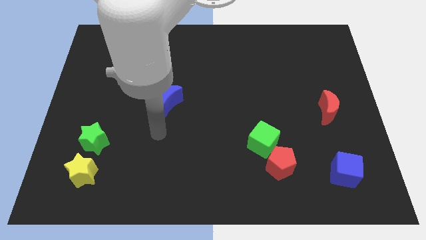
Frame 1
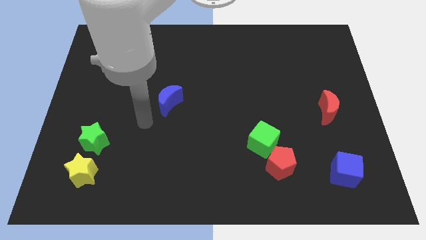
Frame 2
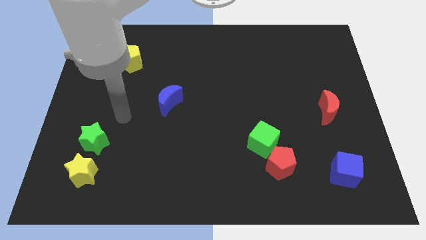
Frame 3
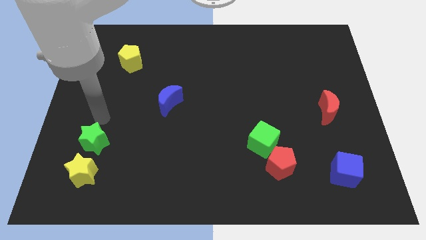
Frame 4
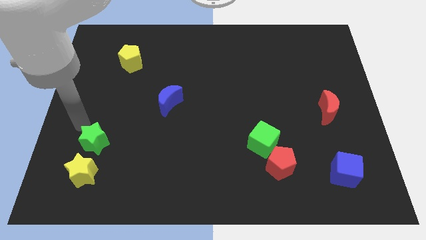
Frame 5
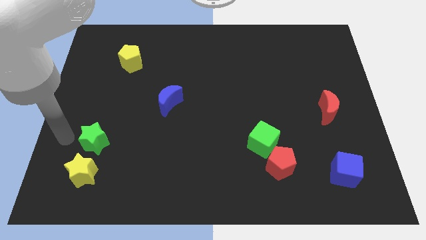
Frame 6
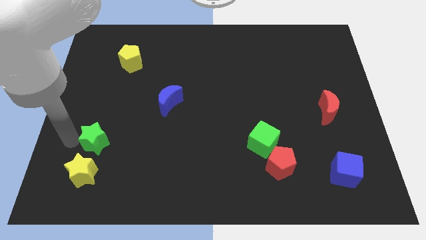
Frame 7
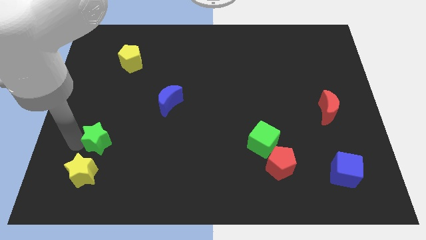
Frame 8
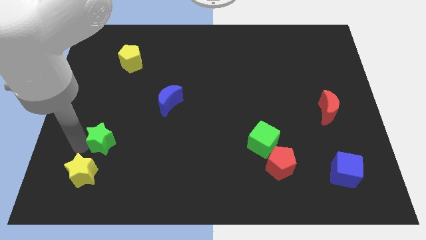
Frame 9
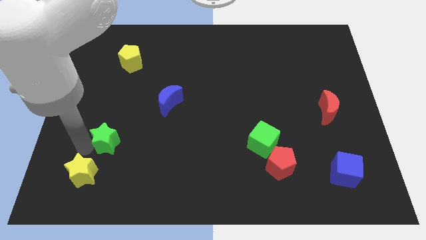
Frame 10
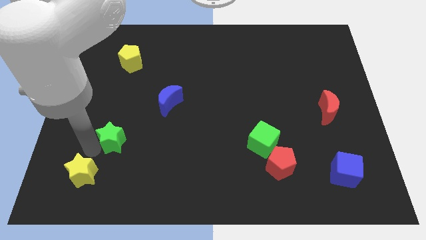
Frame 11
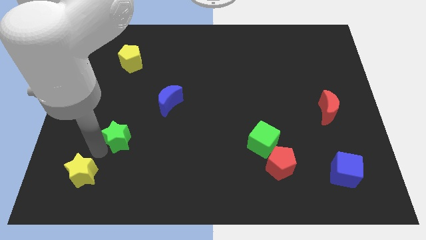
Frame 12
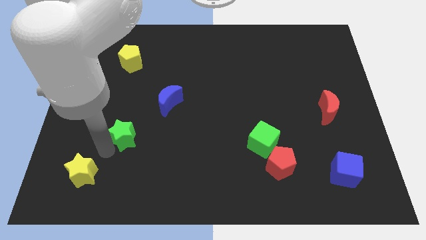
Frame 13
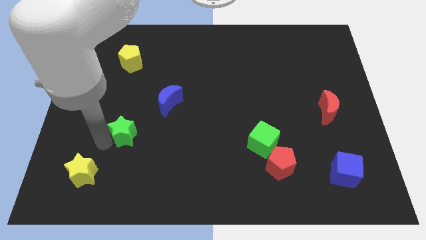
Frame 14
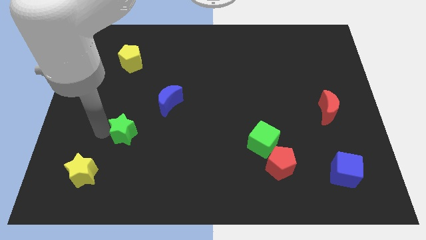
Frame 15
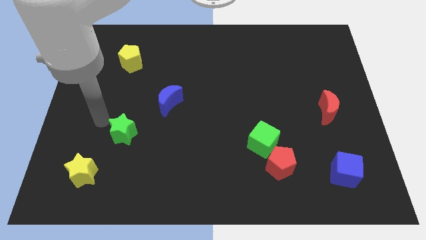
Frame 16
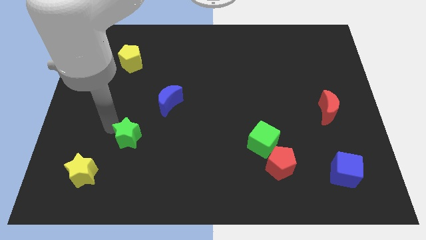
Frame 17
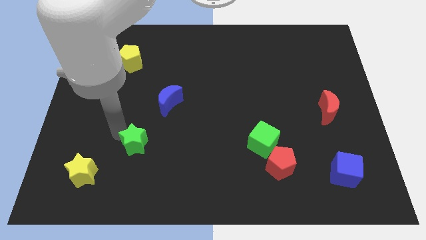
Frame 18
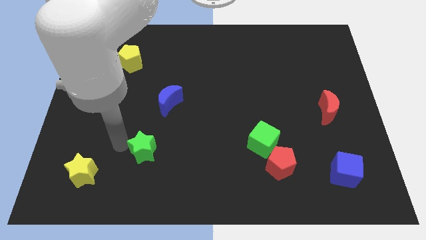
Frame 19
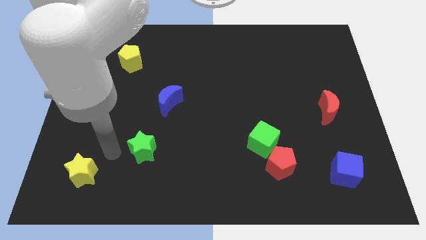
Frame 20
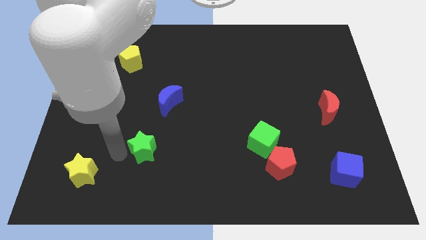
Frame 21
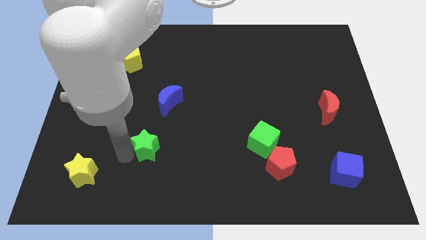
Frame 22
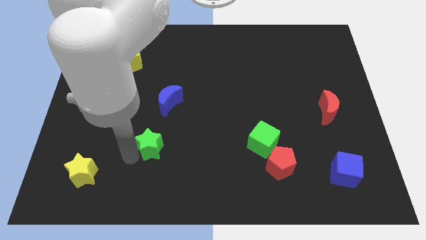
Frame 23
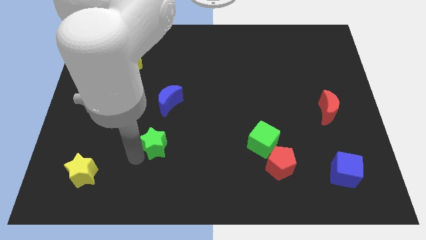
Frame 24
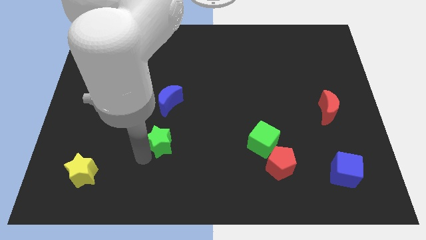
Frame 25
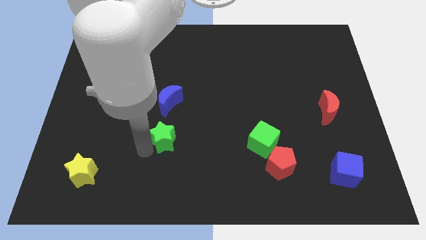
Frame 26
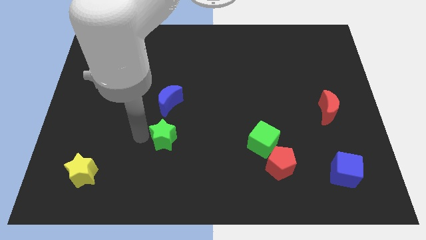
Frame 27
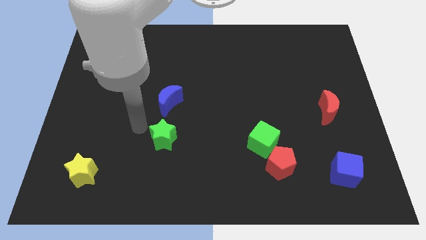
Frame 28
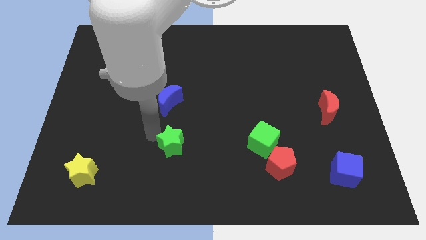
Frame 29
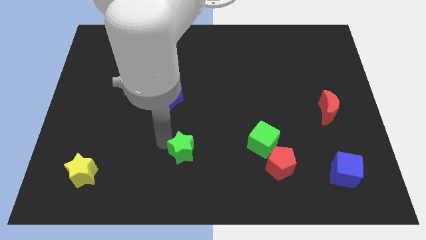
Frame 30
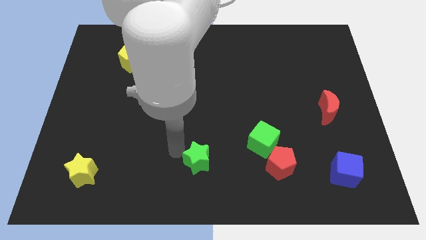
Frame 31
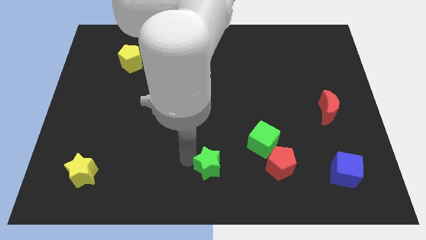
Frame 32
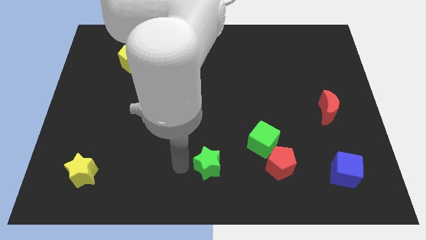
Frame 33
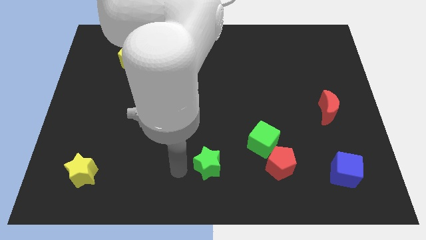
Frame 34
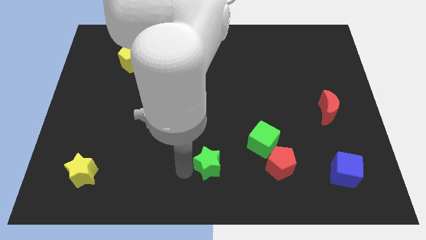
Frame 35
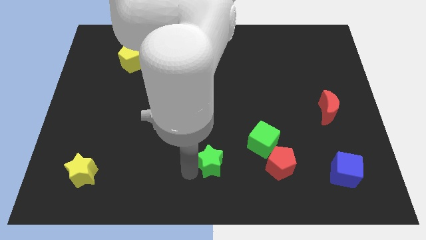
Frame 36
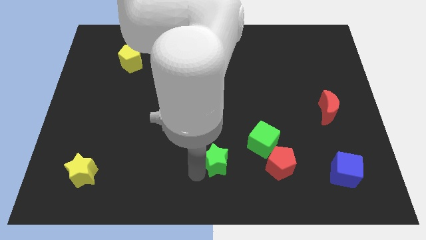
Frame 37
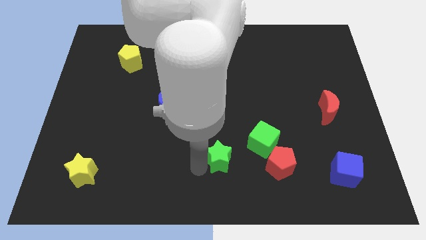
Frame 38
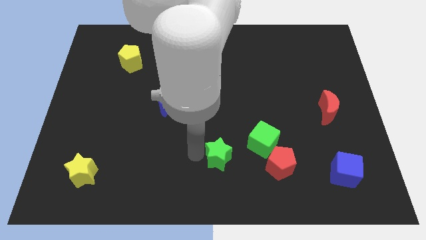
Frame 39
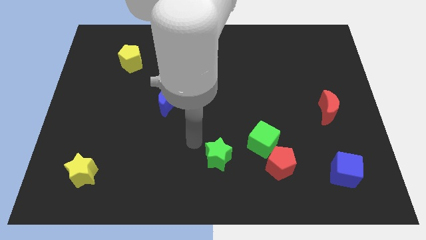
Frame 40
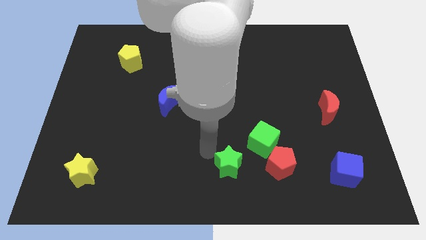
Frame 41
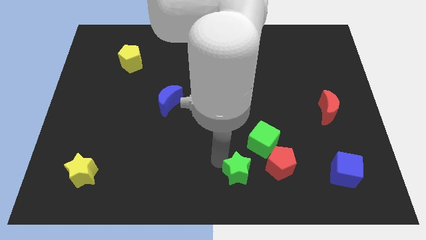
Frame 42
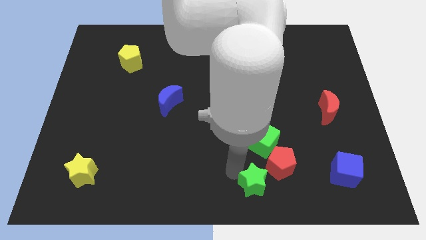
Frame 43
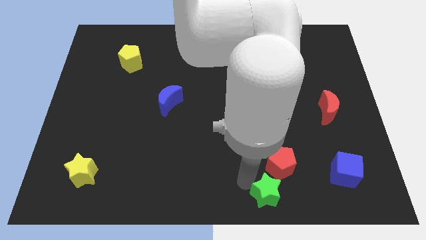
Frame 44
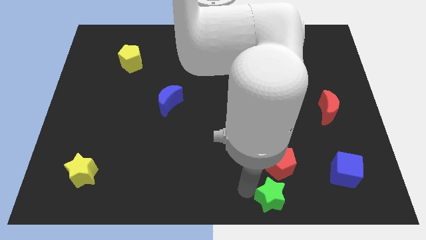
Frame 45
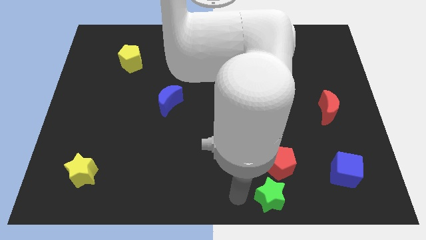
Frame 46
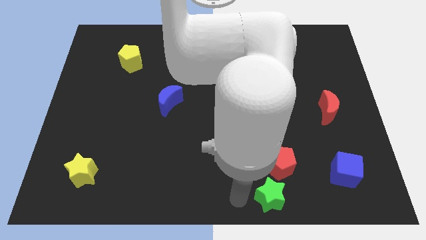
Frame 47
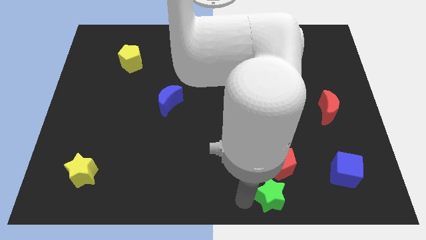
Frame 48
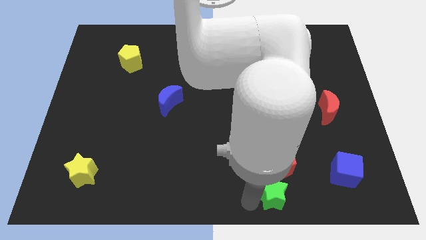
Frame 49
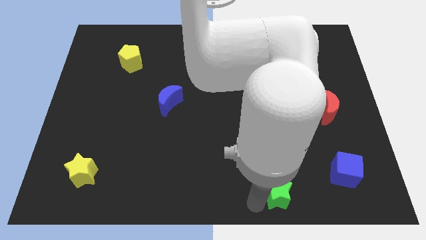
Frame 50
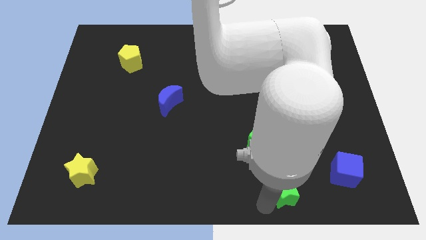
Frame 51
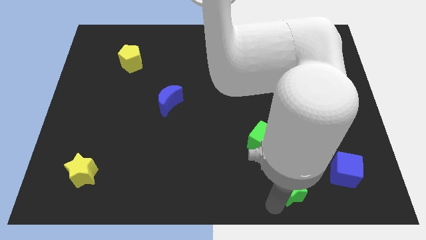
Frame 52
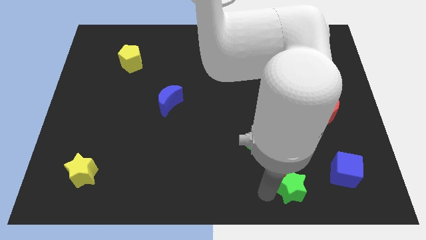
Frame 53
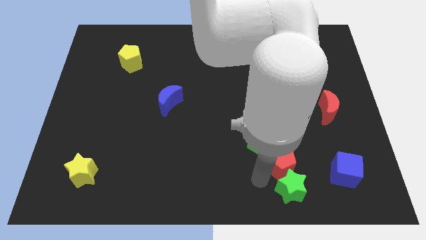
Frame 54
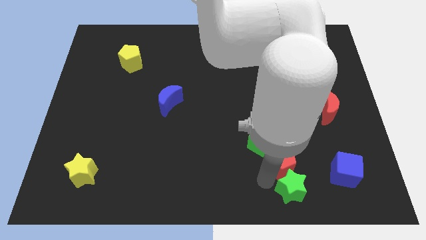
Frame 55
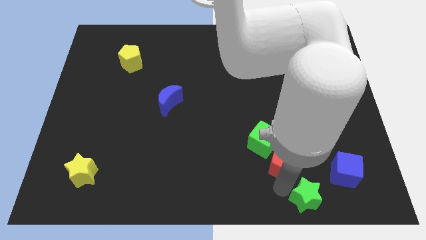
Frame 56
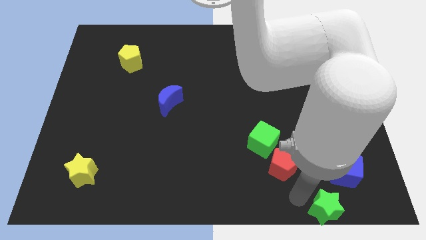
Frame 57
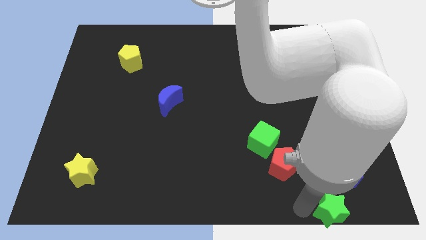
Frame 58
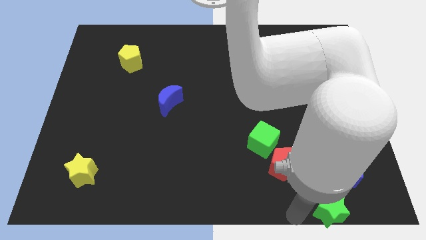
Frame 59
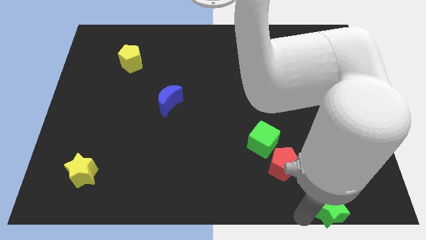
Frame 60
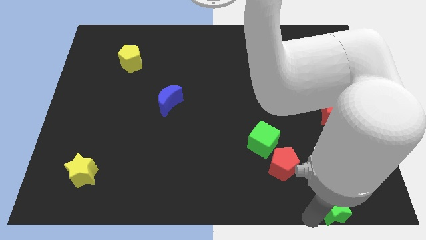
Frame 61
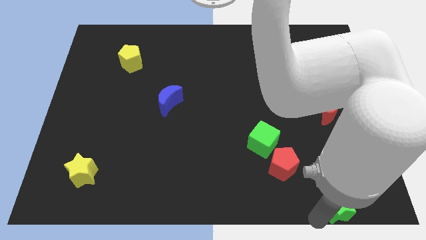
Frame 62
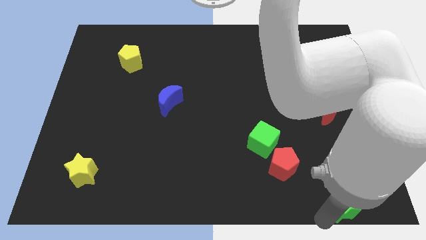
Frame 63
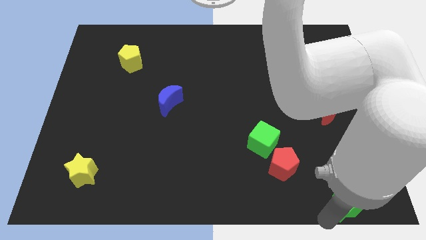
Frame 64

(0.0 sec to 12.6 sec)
move the green star to the bottom right

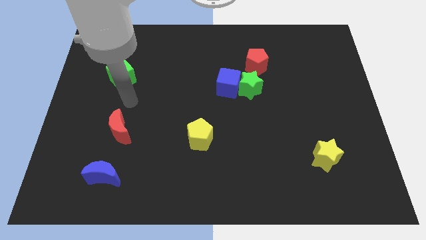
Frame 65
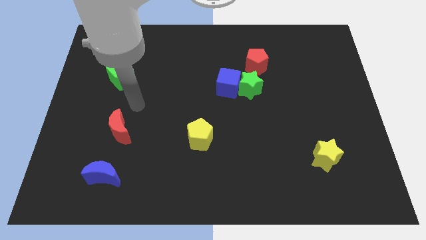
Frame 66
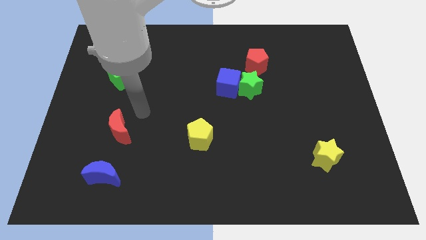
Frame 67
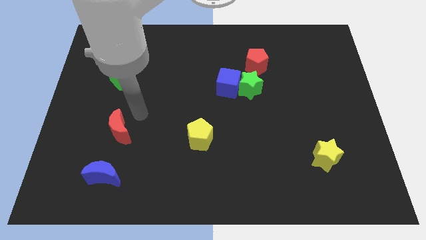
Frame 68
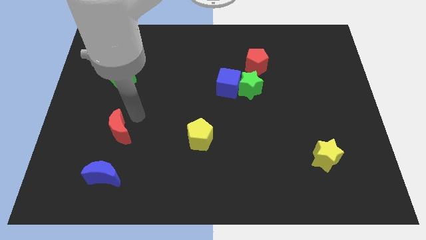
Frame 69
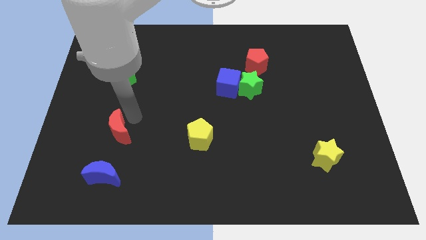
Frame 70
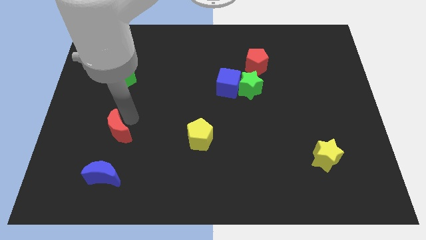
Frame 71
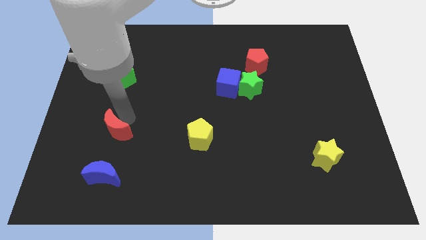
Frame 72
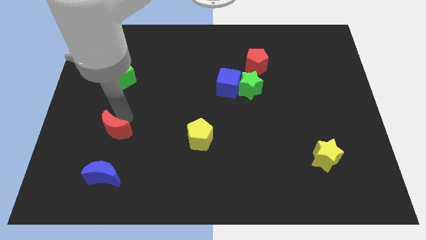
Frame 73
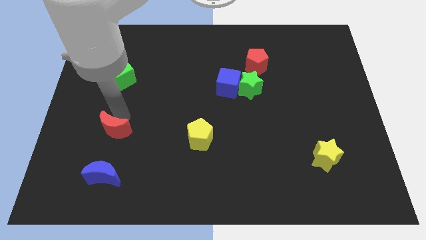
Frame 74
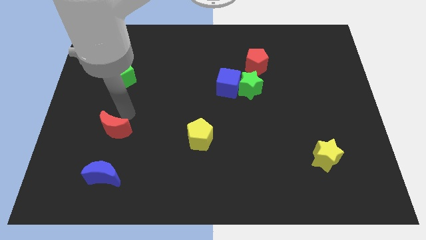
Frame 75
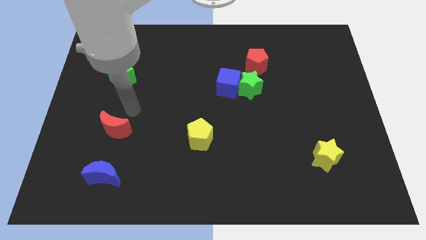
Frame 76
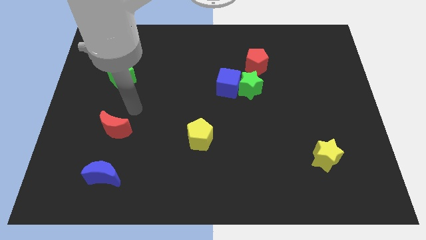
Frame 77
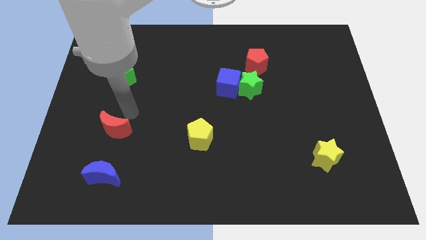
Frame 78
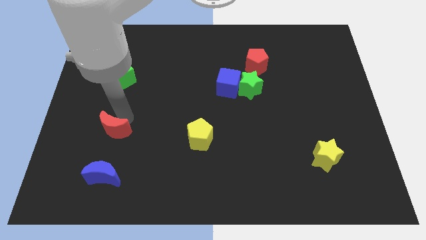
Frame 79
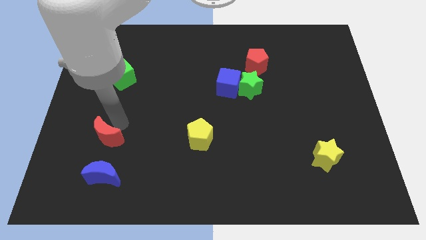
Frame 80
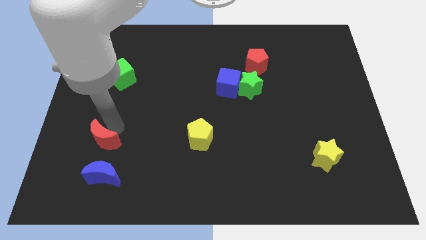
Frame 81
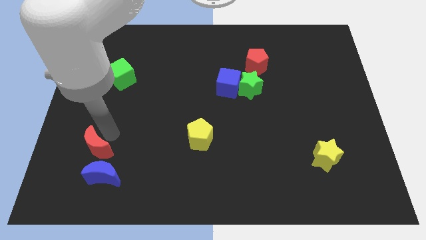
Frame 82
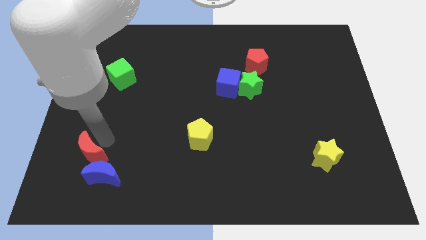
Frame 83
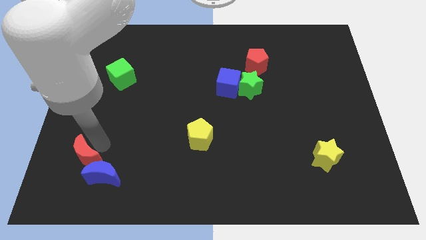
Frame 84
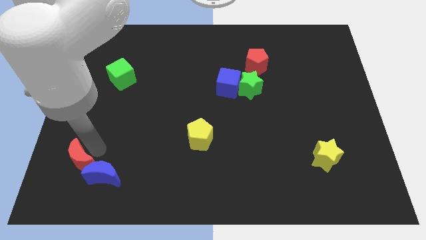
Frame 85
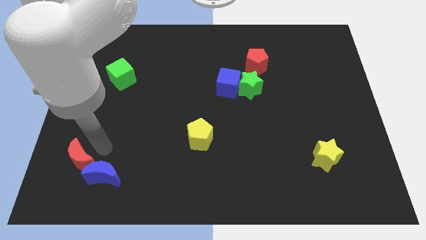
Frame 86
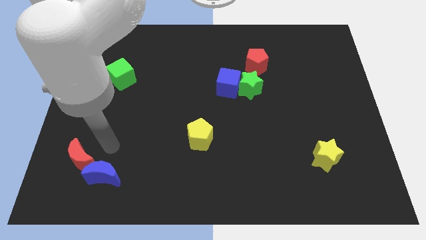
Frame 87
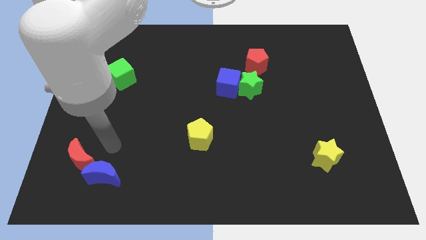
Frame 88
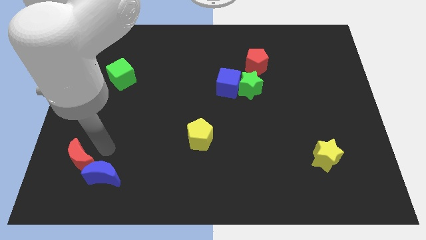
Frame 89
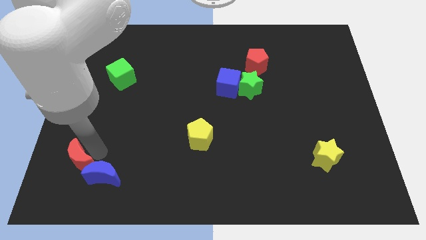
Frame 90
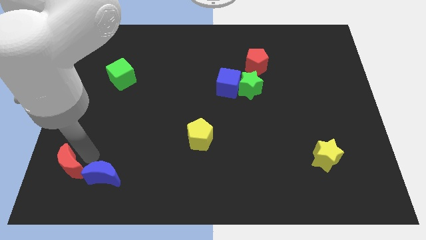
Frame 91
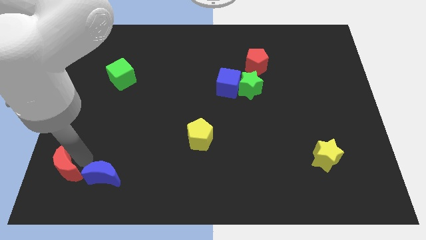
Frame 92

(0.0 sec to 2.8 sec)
put the red moon to the bottom left corner
